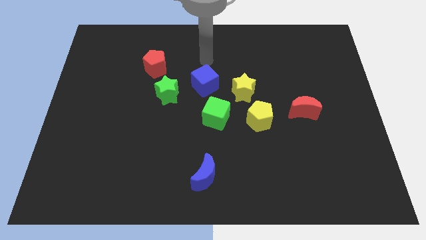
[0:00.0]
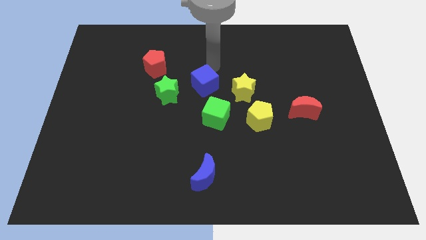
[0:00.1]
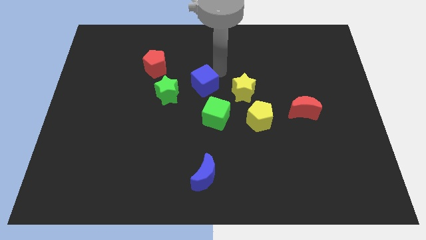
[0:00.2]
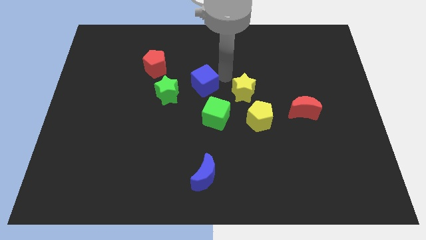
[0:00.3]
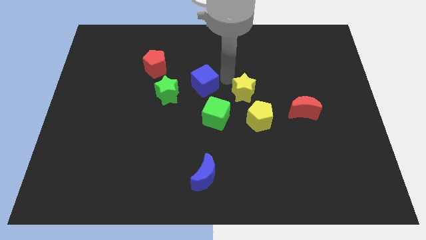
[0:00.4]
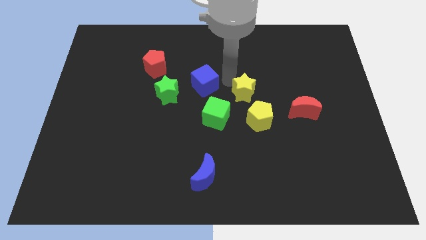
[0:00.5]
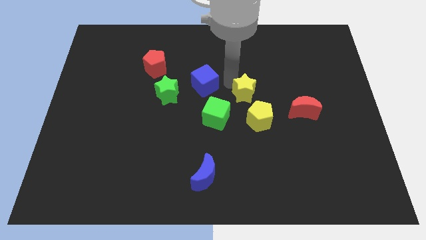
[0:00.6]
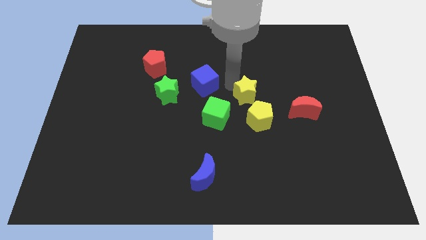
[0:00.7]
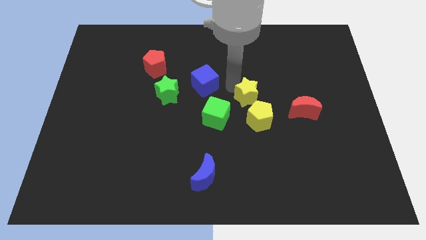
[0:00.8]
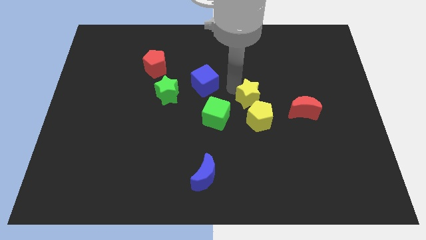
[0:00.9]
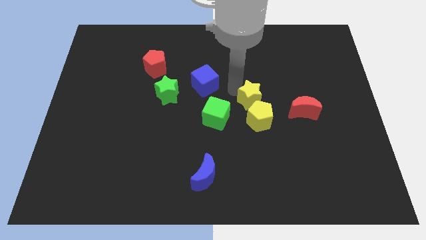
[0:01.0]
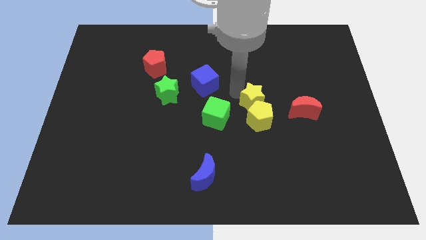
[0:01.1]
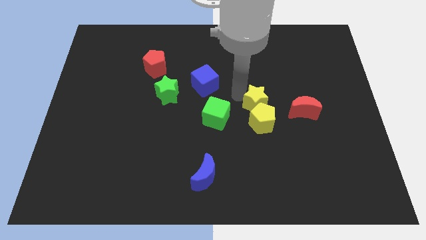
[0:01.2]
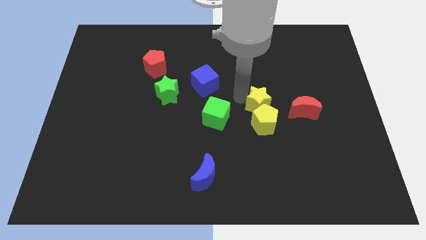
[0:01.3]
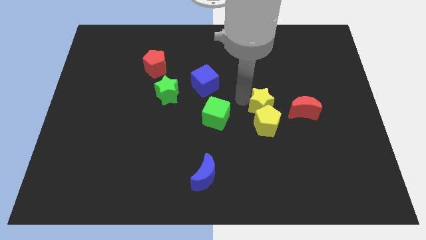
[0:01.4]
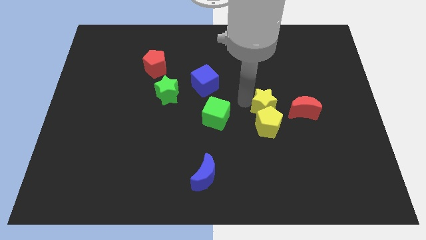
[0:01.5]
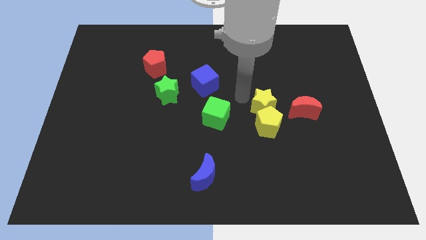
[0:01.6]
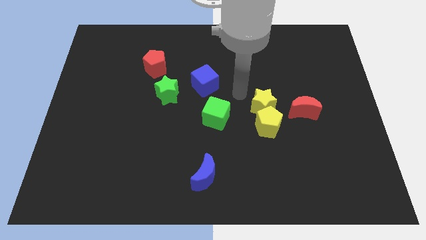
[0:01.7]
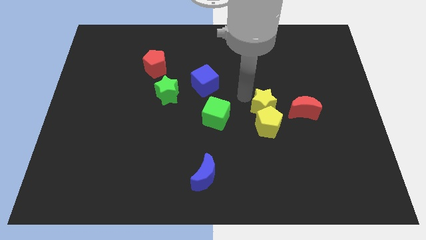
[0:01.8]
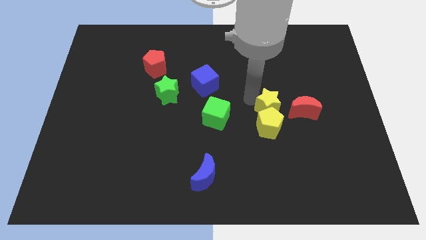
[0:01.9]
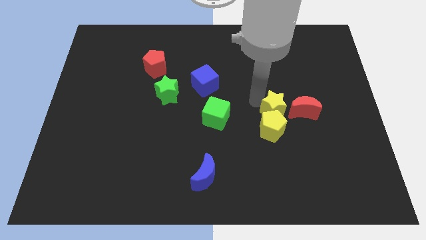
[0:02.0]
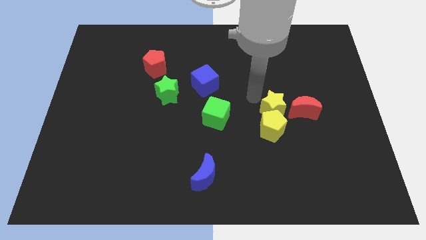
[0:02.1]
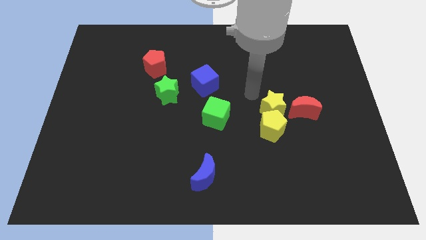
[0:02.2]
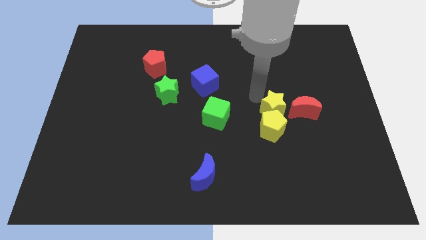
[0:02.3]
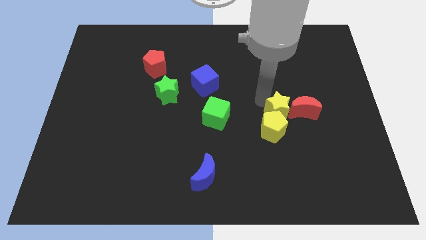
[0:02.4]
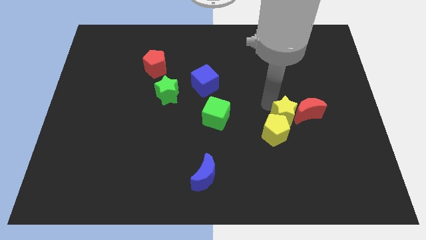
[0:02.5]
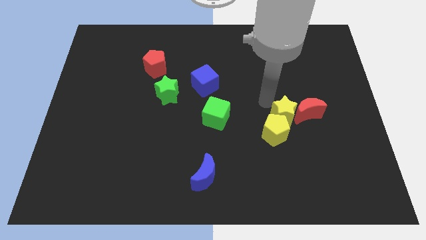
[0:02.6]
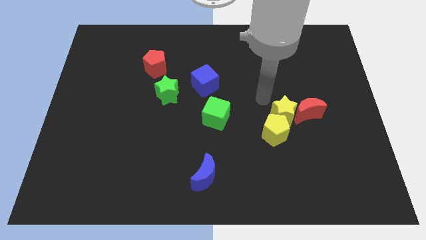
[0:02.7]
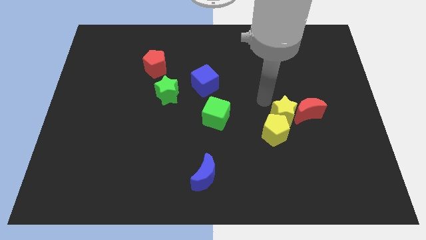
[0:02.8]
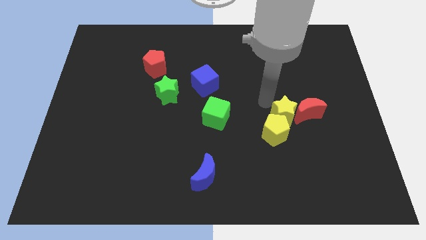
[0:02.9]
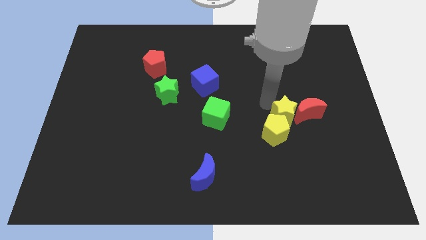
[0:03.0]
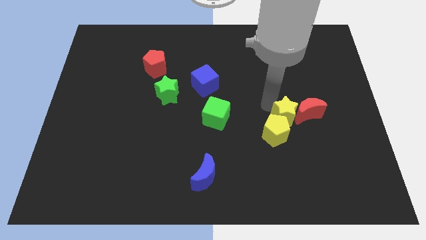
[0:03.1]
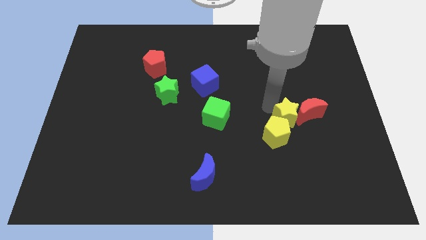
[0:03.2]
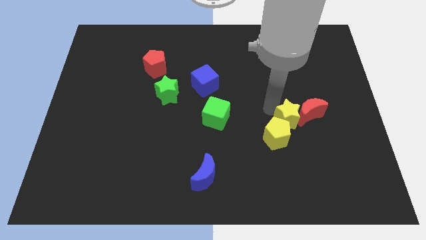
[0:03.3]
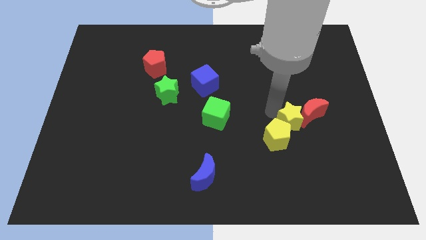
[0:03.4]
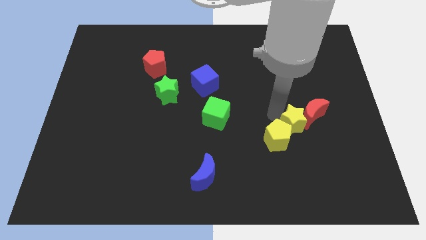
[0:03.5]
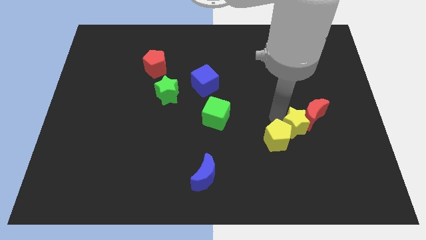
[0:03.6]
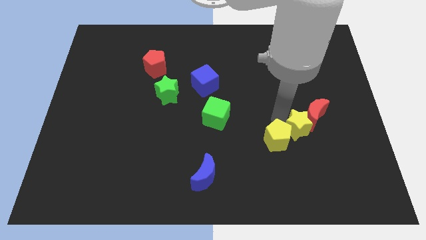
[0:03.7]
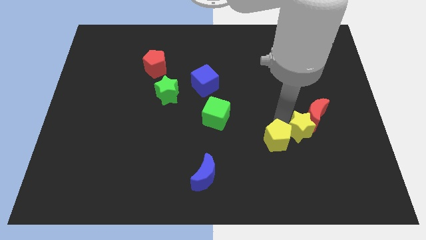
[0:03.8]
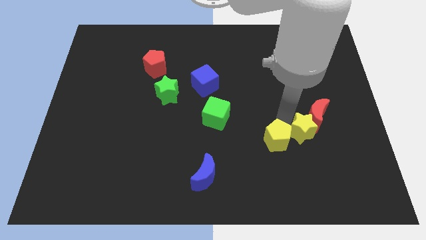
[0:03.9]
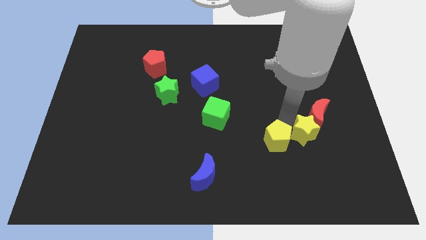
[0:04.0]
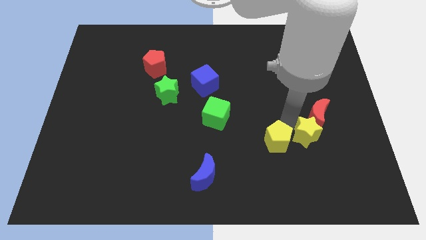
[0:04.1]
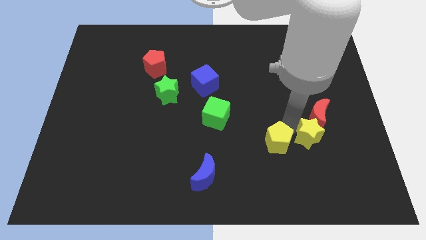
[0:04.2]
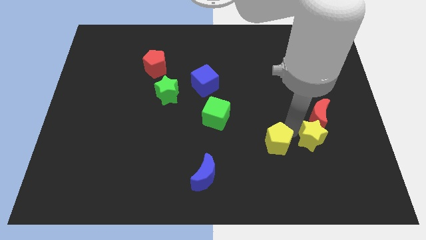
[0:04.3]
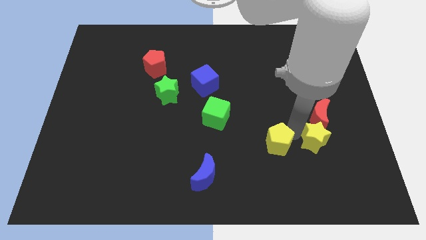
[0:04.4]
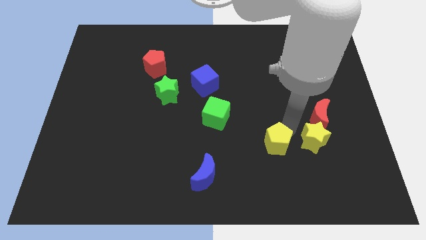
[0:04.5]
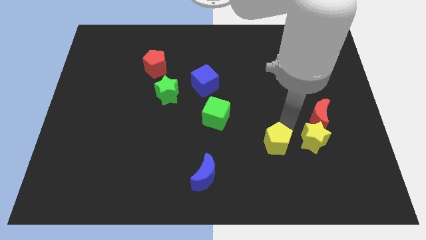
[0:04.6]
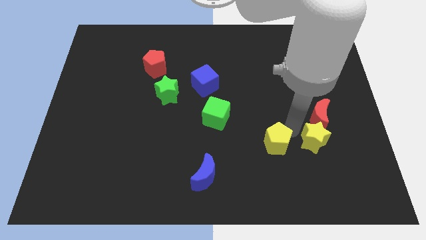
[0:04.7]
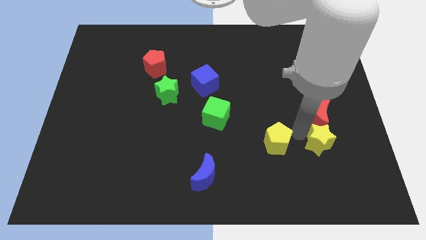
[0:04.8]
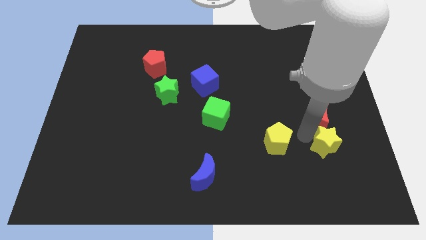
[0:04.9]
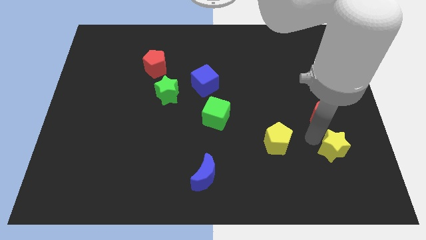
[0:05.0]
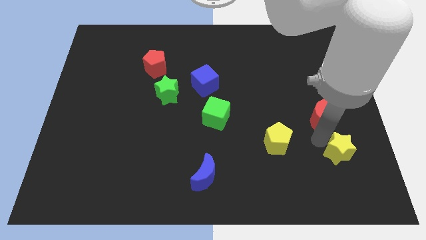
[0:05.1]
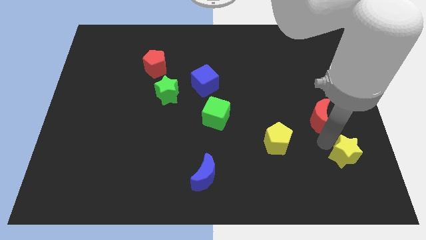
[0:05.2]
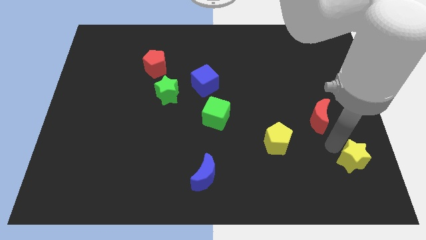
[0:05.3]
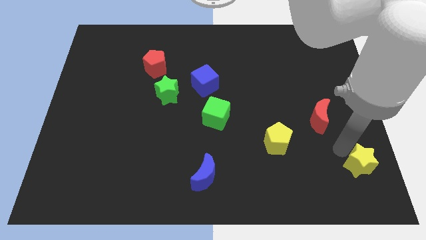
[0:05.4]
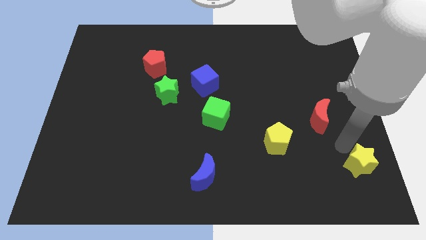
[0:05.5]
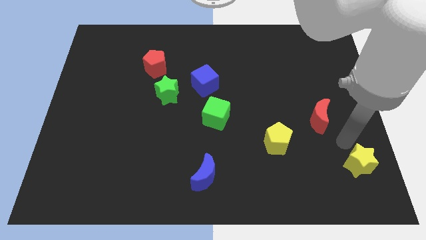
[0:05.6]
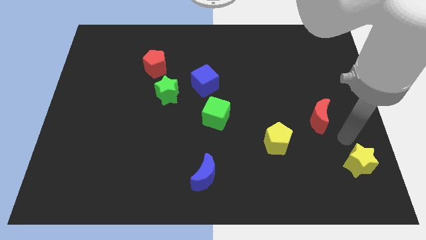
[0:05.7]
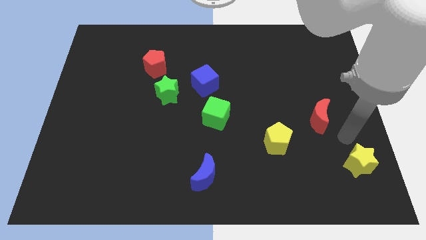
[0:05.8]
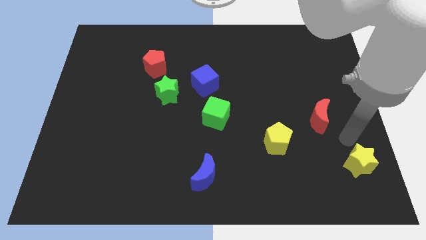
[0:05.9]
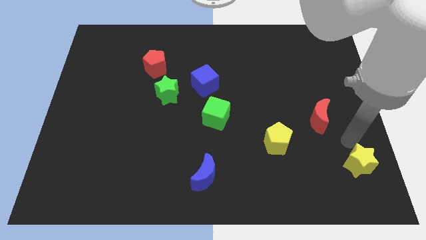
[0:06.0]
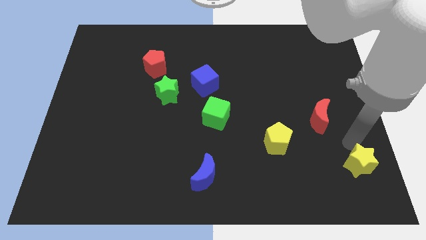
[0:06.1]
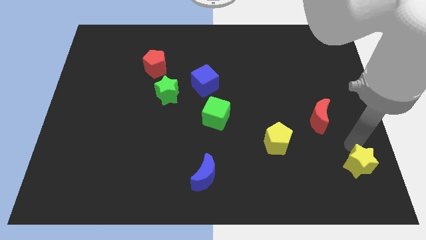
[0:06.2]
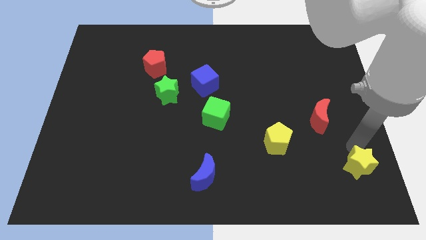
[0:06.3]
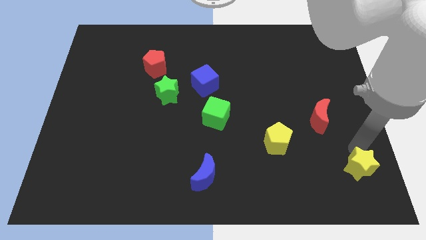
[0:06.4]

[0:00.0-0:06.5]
slide the yellow star to the bottom right corner
